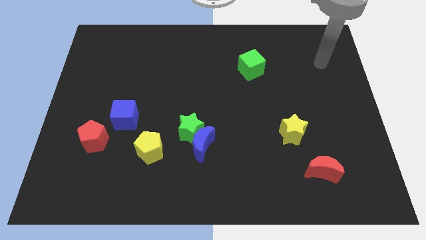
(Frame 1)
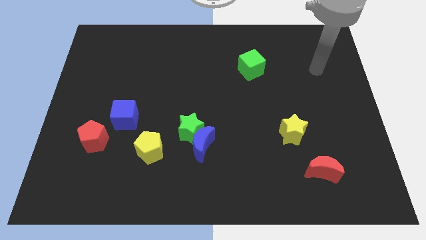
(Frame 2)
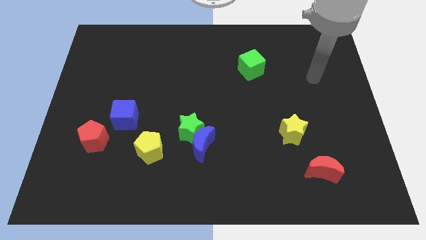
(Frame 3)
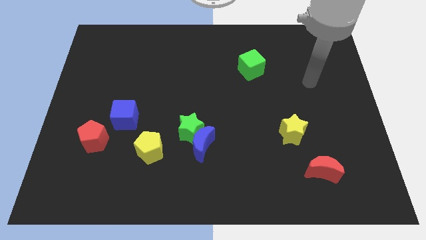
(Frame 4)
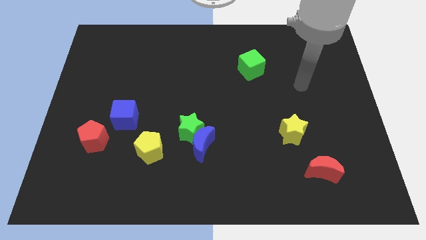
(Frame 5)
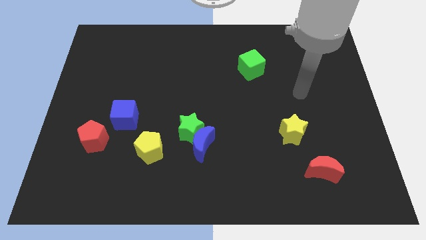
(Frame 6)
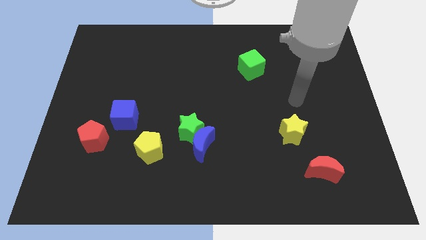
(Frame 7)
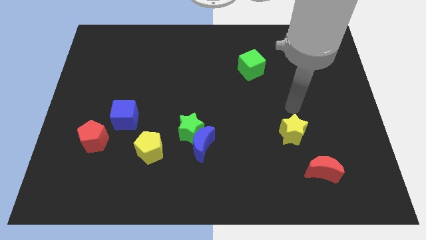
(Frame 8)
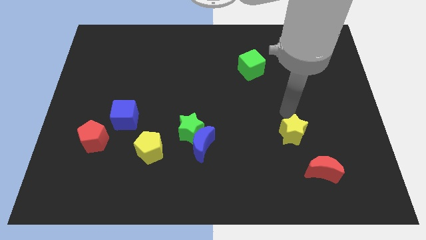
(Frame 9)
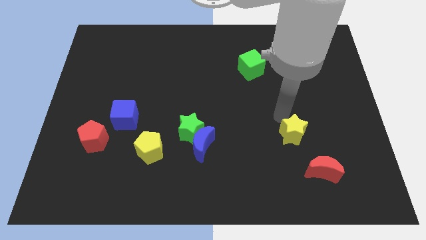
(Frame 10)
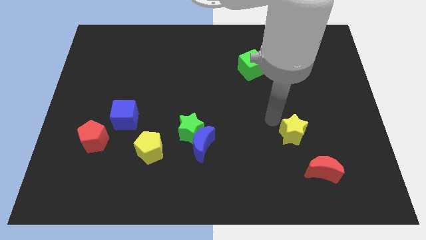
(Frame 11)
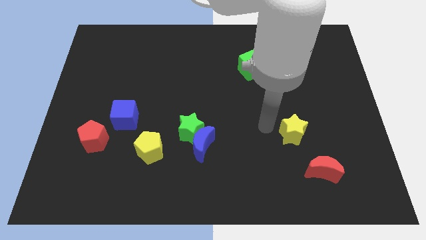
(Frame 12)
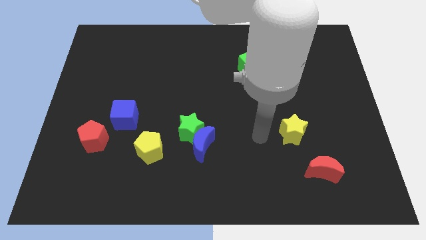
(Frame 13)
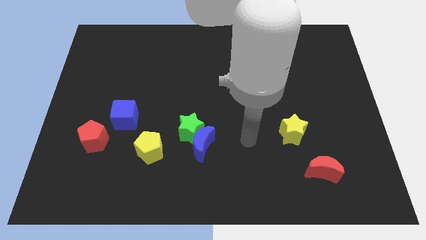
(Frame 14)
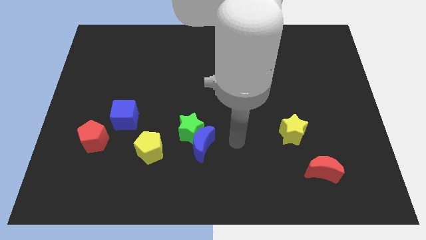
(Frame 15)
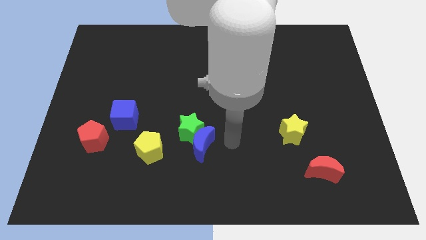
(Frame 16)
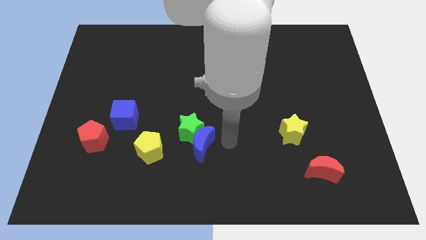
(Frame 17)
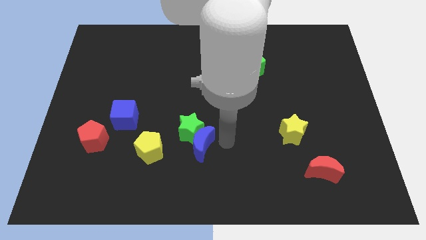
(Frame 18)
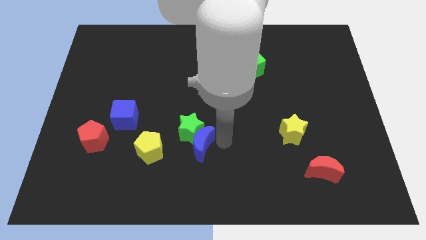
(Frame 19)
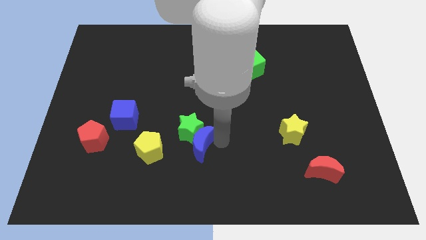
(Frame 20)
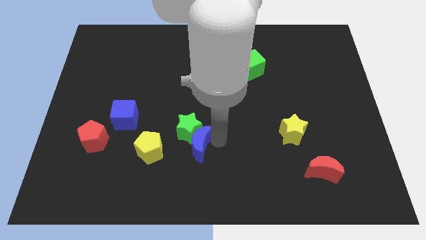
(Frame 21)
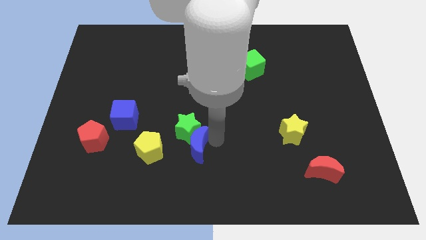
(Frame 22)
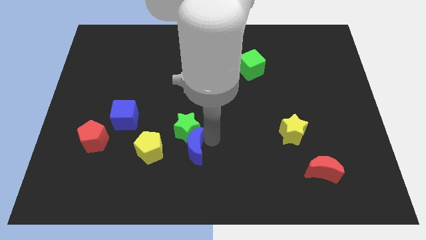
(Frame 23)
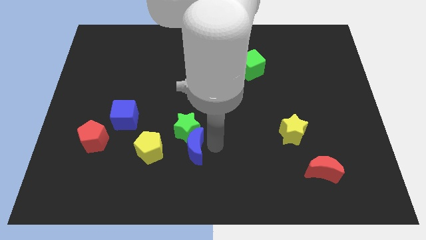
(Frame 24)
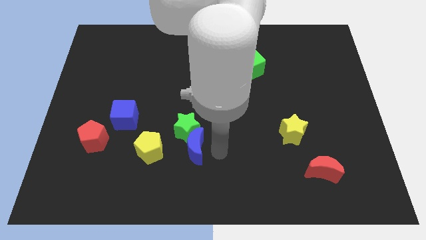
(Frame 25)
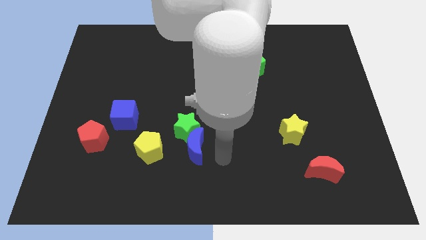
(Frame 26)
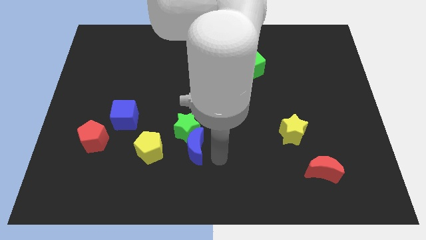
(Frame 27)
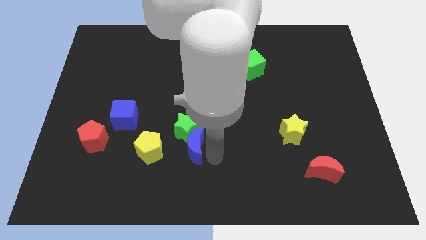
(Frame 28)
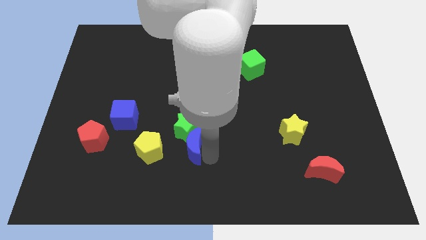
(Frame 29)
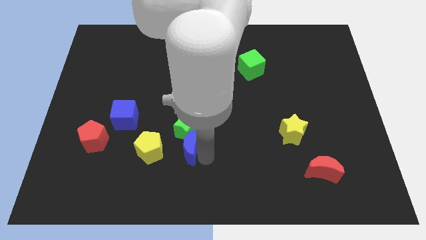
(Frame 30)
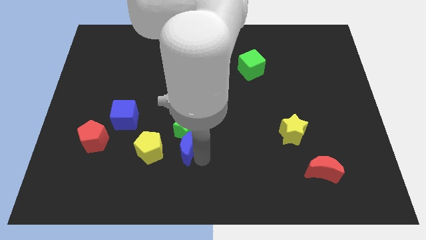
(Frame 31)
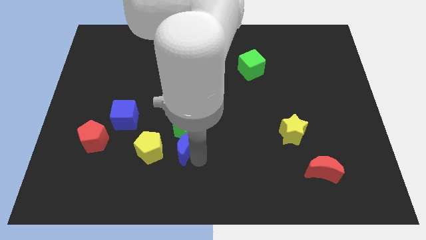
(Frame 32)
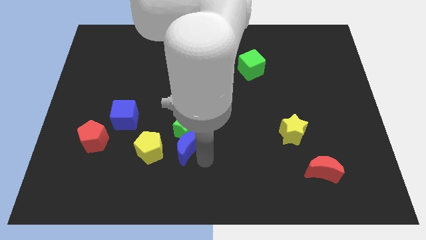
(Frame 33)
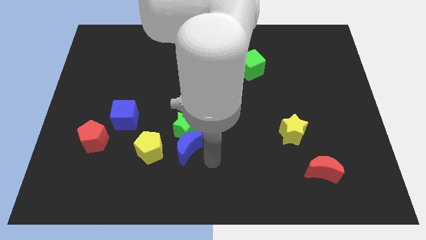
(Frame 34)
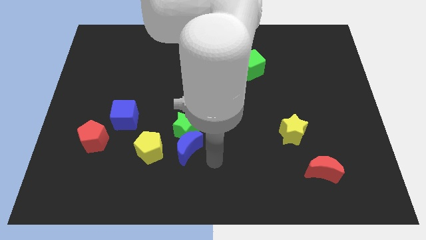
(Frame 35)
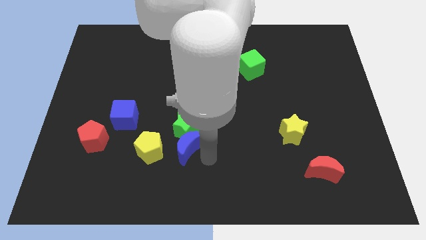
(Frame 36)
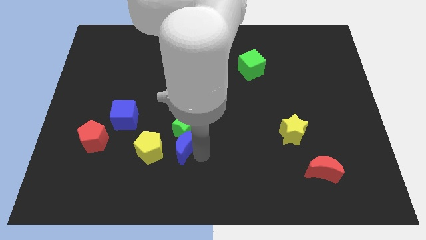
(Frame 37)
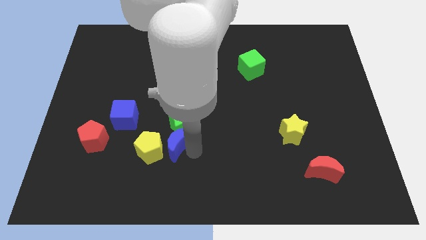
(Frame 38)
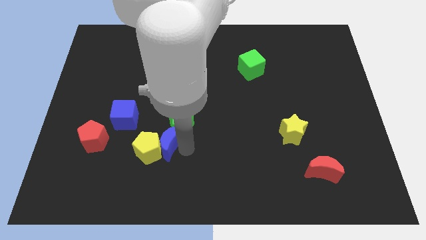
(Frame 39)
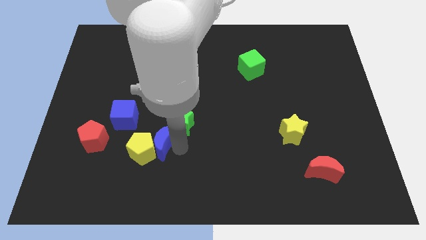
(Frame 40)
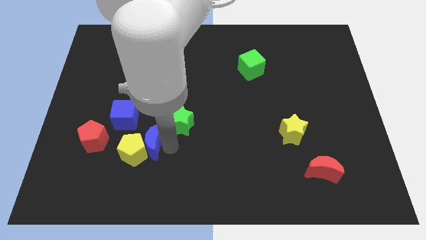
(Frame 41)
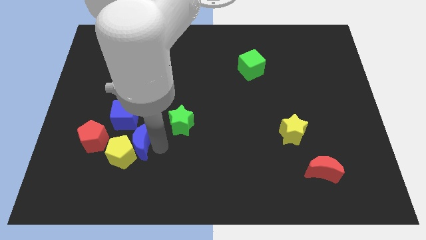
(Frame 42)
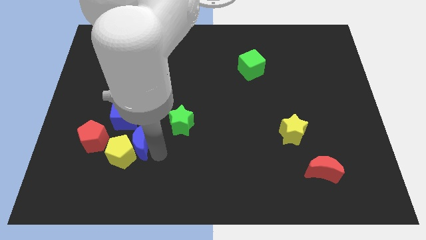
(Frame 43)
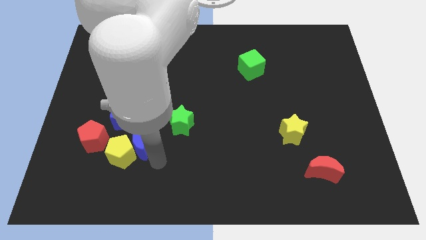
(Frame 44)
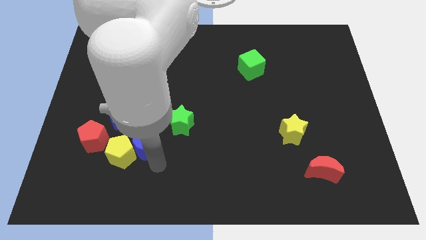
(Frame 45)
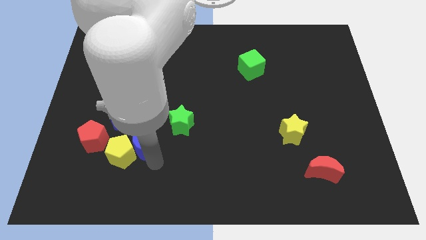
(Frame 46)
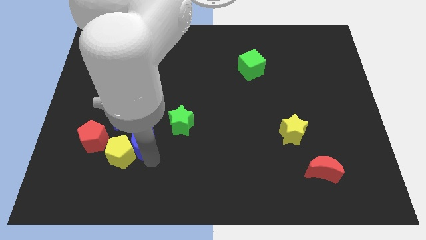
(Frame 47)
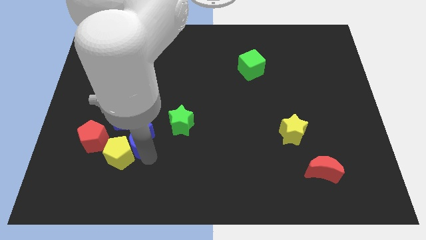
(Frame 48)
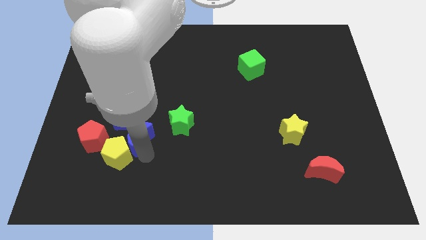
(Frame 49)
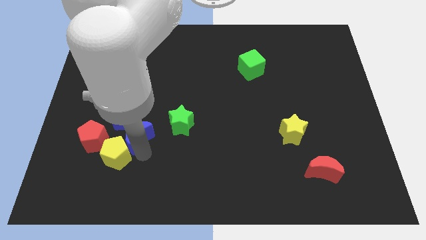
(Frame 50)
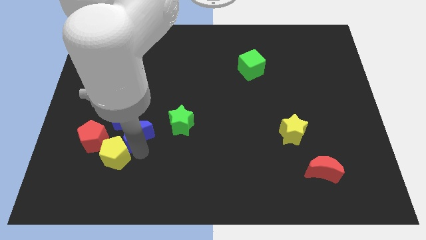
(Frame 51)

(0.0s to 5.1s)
push the blue moon to the blue cube

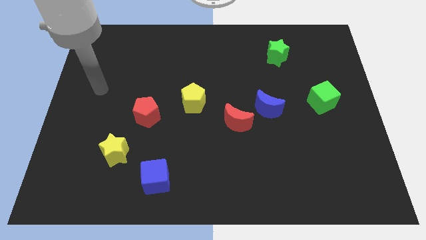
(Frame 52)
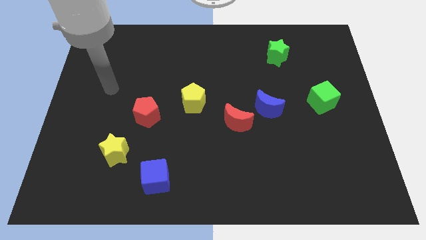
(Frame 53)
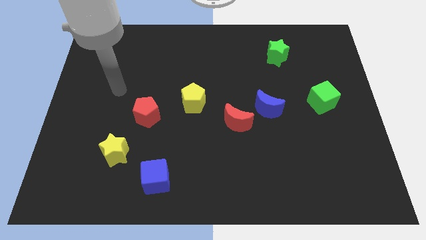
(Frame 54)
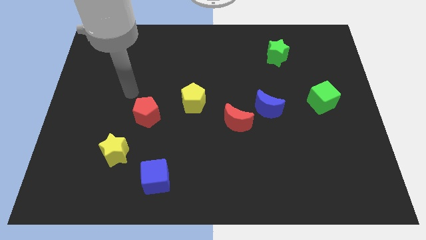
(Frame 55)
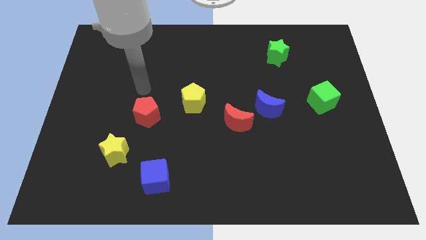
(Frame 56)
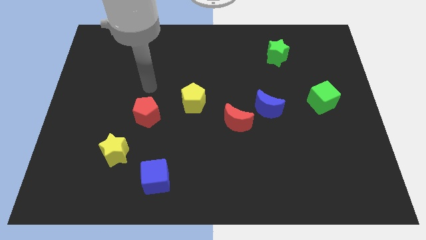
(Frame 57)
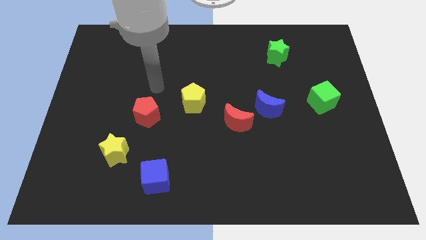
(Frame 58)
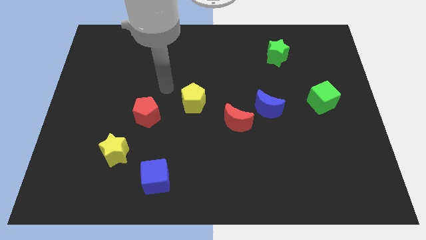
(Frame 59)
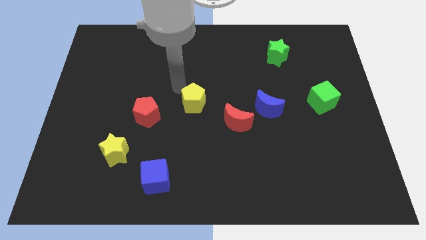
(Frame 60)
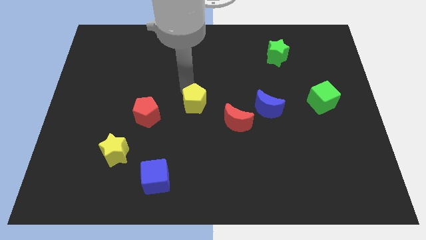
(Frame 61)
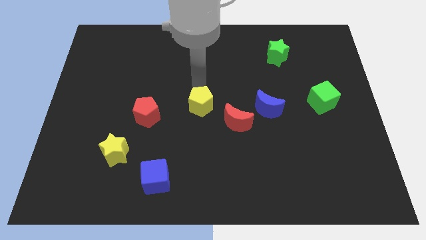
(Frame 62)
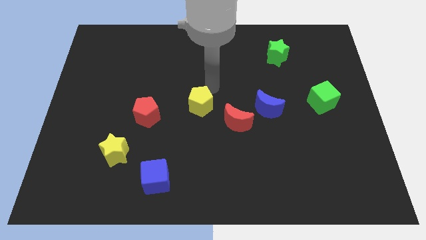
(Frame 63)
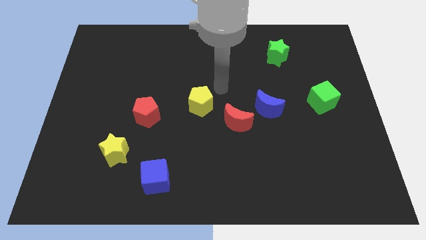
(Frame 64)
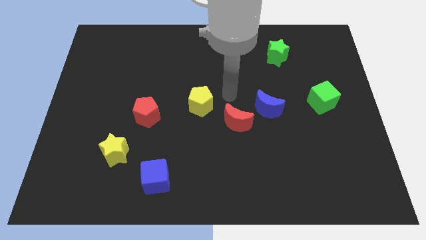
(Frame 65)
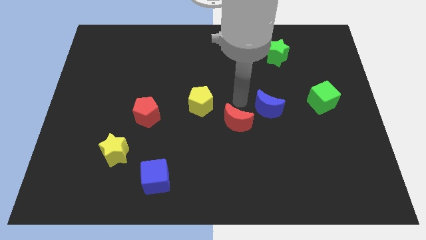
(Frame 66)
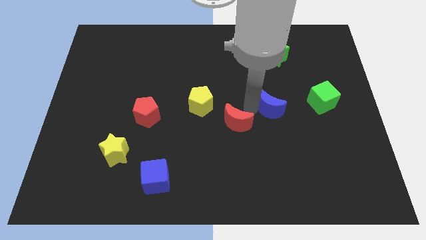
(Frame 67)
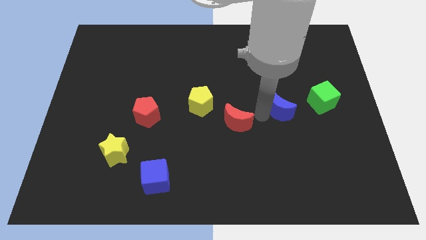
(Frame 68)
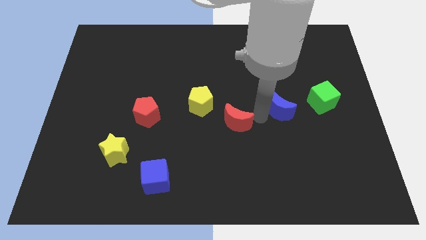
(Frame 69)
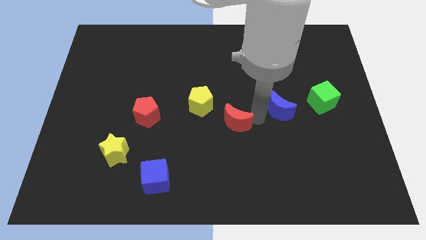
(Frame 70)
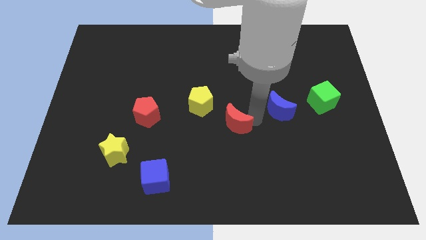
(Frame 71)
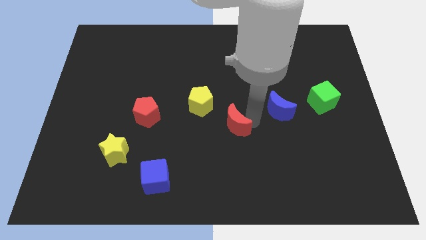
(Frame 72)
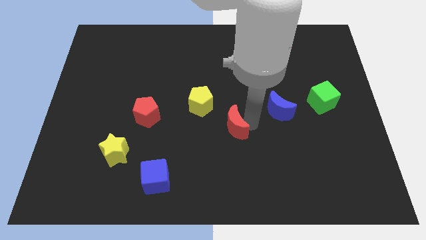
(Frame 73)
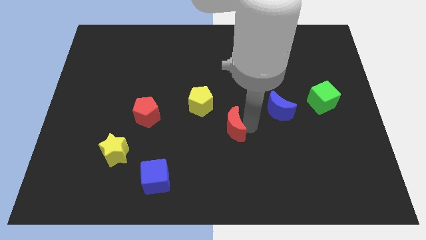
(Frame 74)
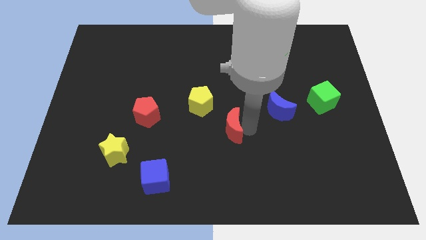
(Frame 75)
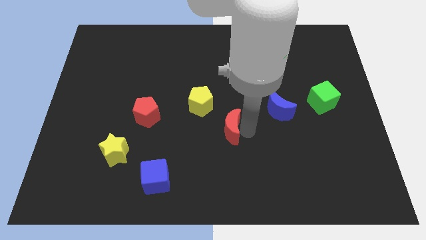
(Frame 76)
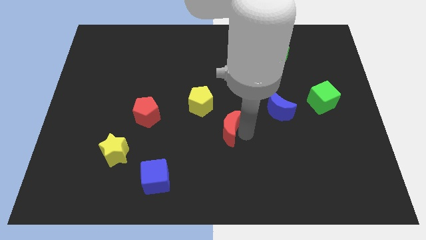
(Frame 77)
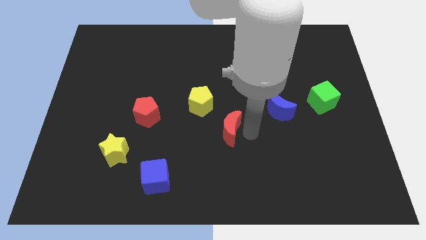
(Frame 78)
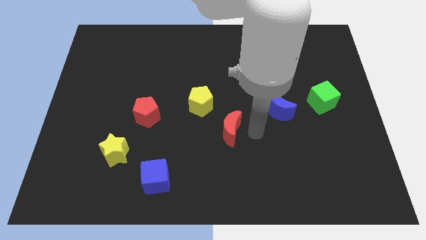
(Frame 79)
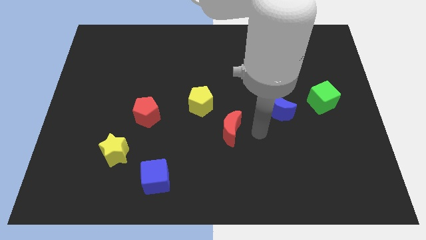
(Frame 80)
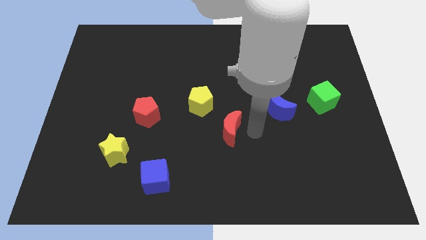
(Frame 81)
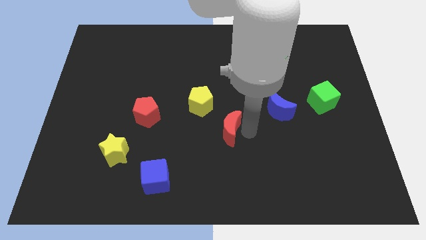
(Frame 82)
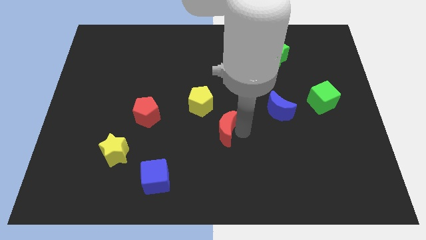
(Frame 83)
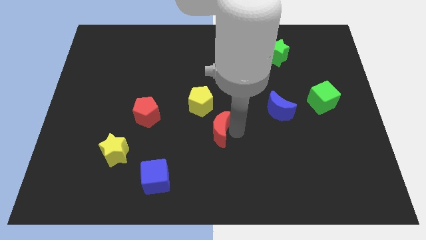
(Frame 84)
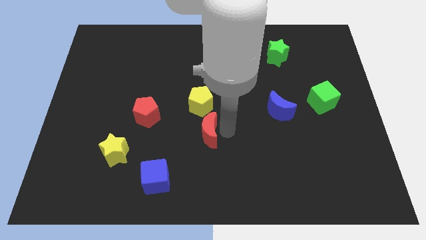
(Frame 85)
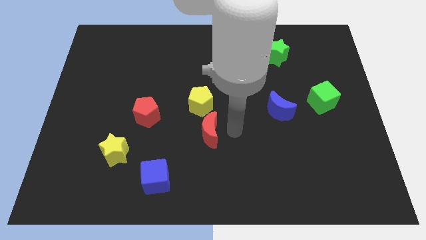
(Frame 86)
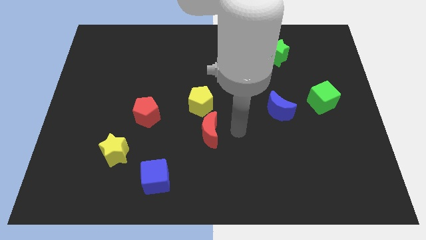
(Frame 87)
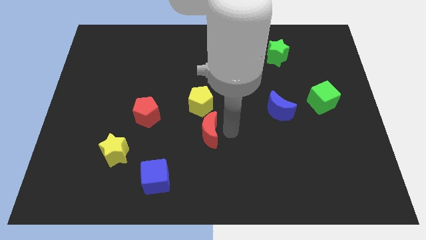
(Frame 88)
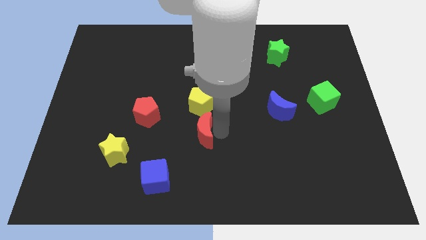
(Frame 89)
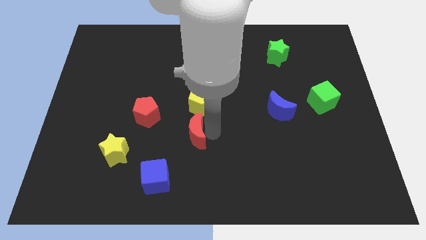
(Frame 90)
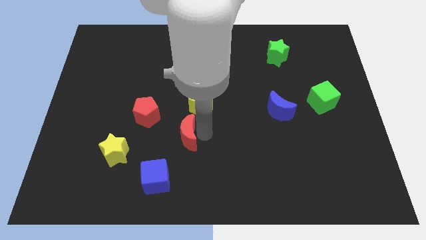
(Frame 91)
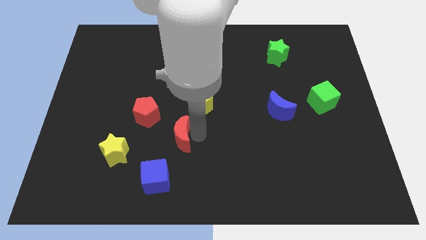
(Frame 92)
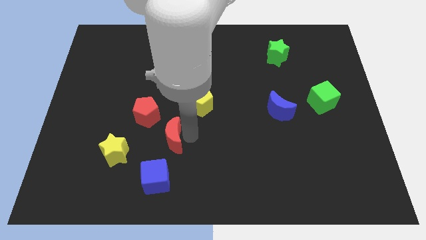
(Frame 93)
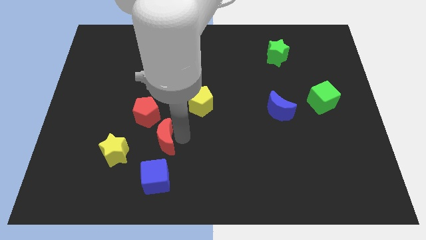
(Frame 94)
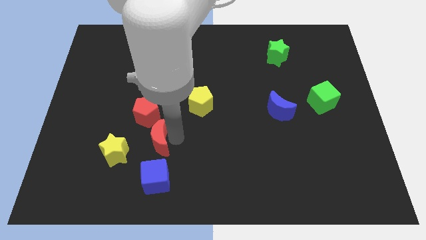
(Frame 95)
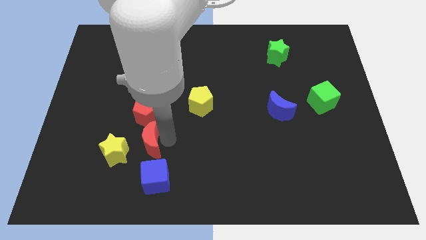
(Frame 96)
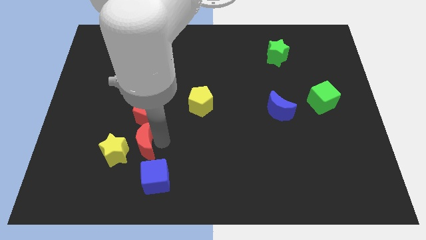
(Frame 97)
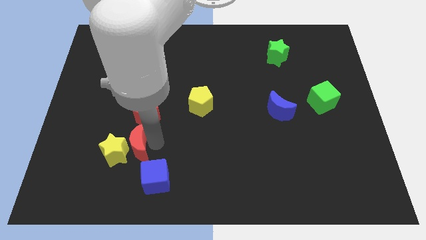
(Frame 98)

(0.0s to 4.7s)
slide the red moon next to the yellow star
